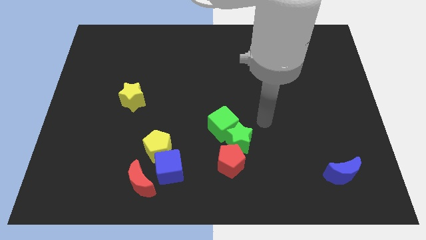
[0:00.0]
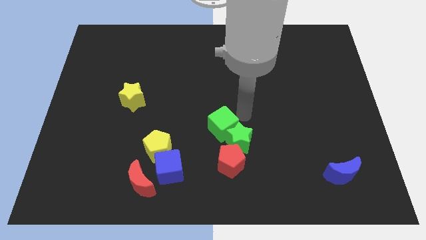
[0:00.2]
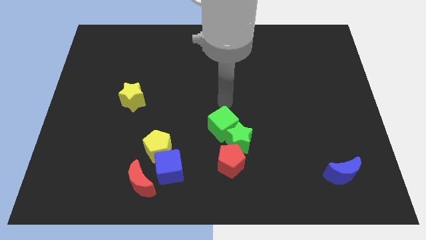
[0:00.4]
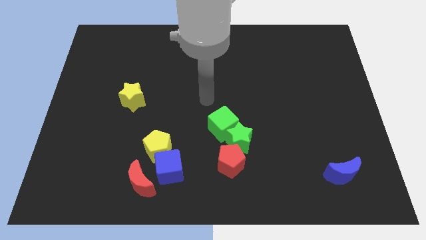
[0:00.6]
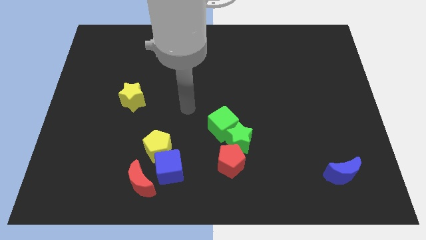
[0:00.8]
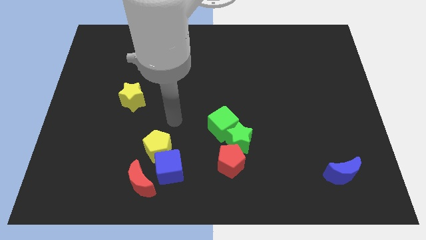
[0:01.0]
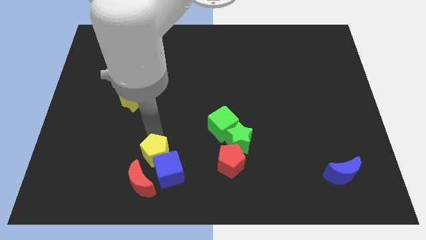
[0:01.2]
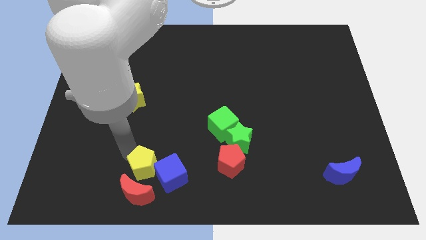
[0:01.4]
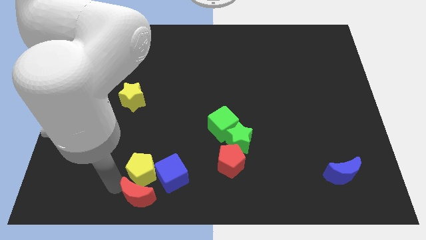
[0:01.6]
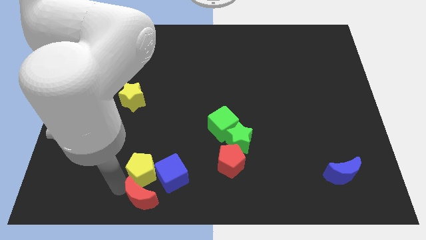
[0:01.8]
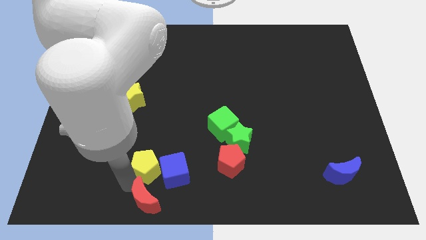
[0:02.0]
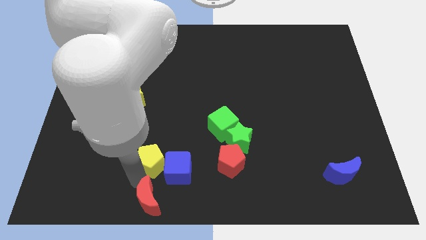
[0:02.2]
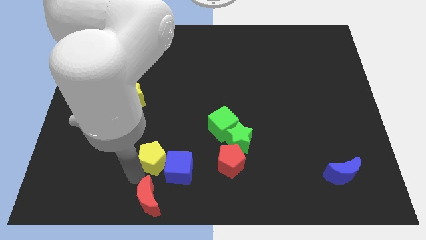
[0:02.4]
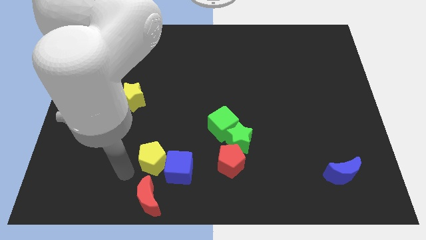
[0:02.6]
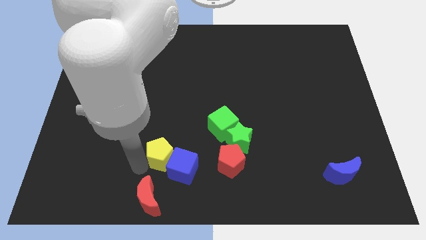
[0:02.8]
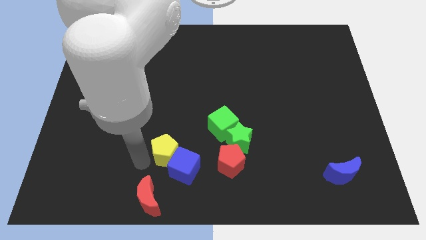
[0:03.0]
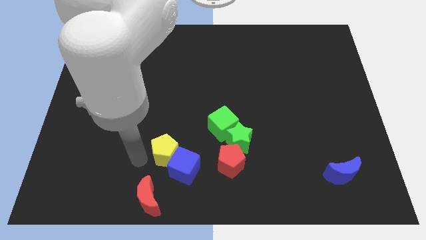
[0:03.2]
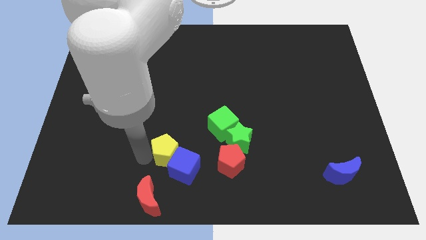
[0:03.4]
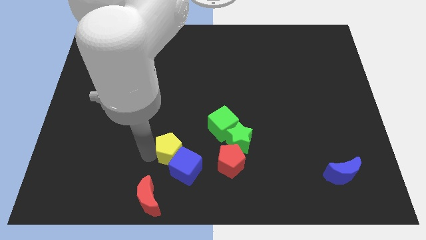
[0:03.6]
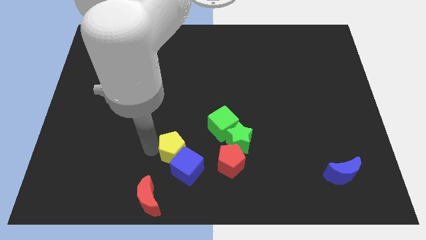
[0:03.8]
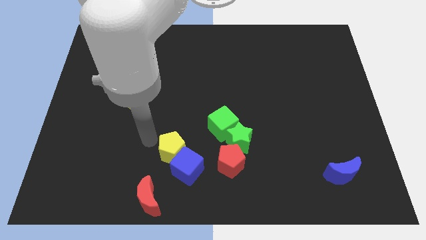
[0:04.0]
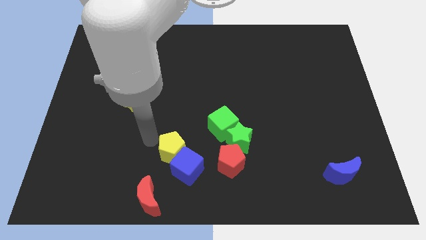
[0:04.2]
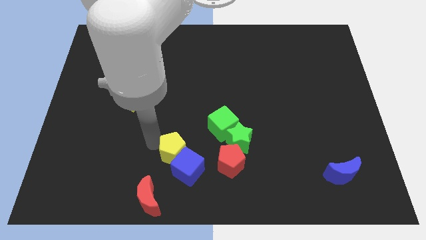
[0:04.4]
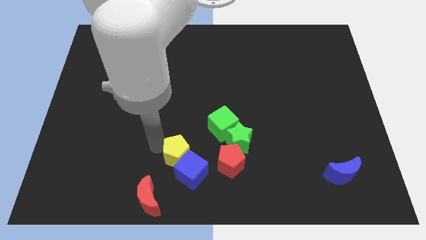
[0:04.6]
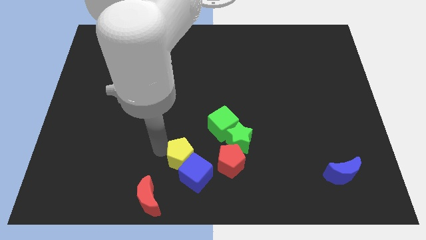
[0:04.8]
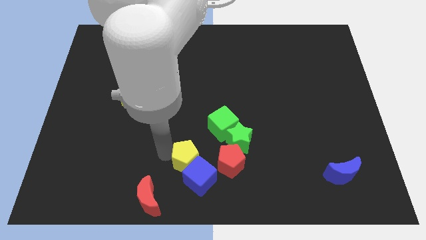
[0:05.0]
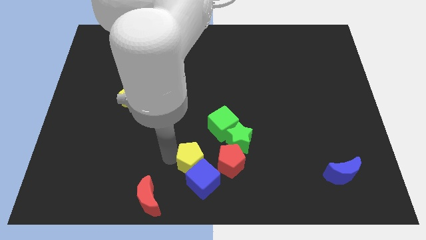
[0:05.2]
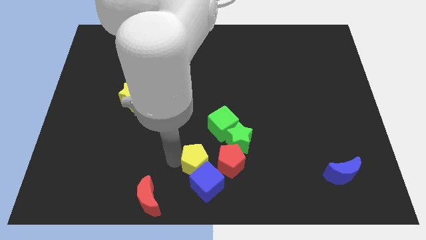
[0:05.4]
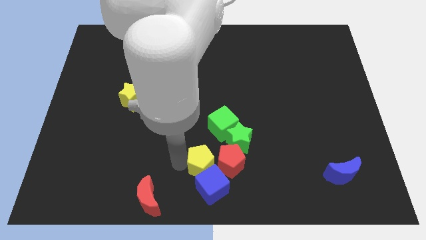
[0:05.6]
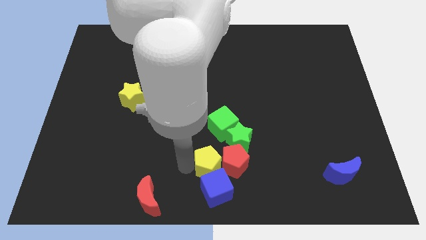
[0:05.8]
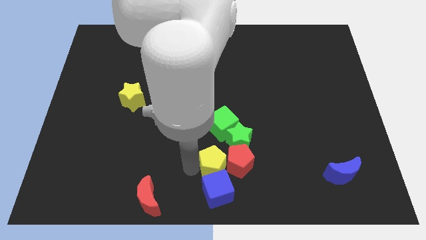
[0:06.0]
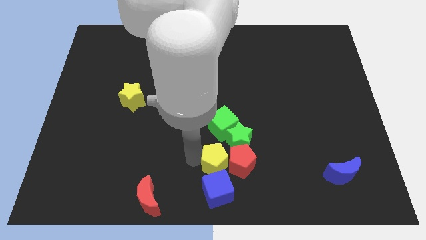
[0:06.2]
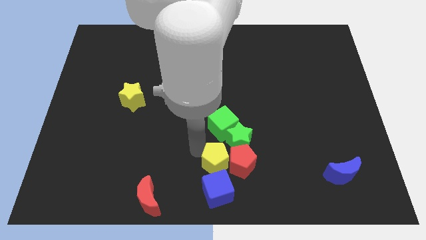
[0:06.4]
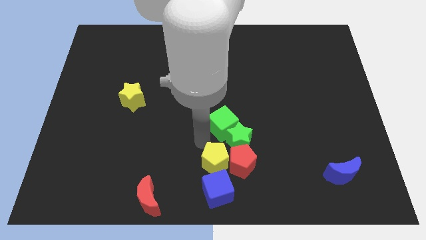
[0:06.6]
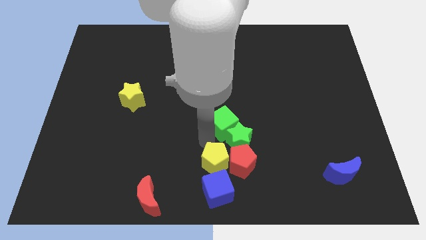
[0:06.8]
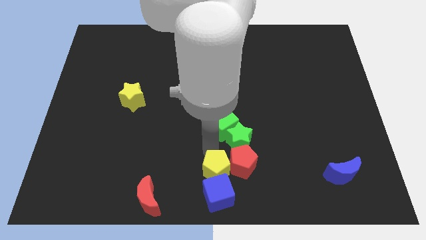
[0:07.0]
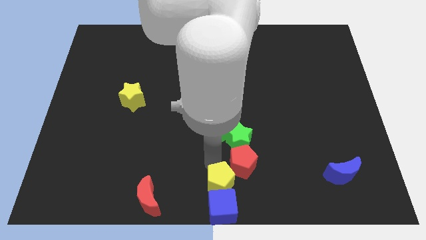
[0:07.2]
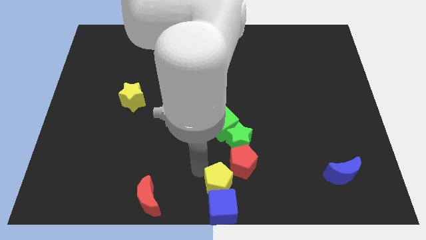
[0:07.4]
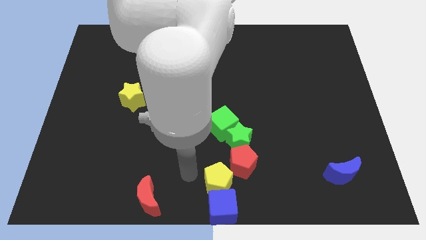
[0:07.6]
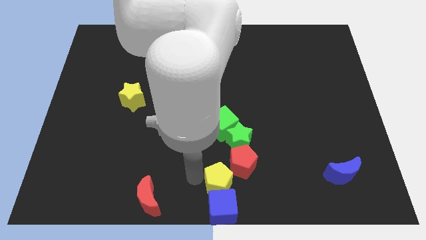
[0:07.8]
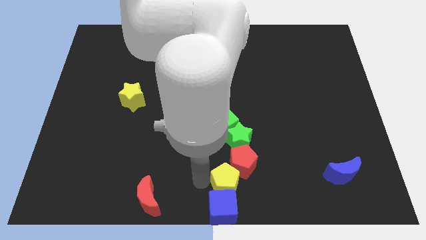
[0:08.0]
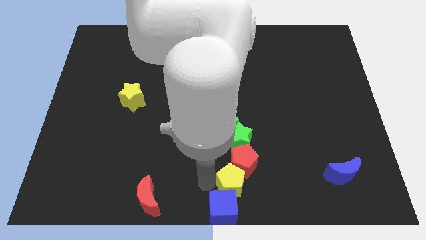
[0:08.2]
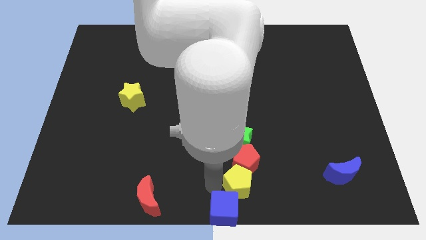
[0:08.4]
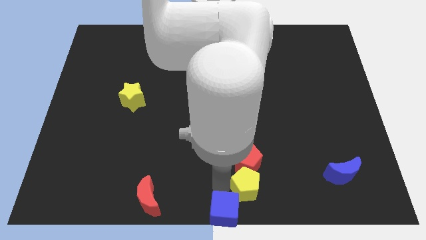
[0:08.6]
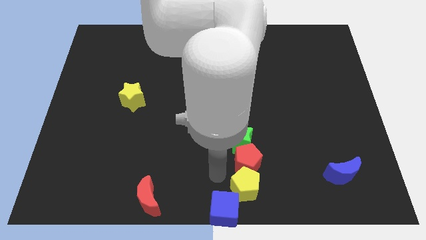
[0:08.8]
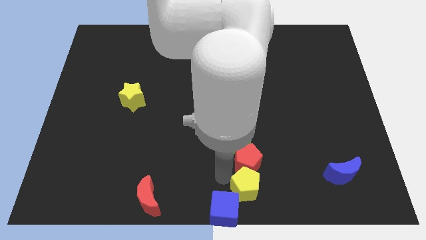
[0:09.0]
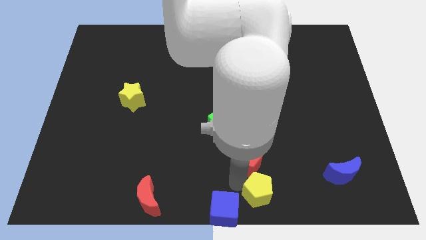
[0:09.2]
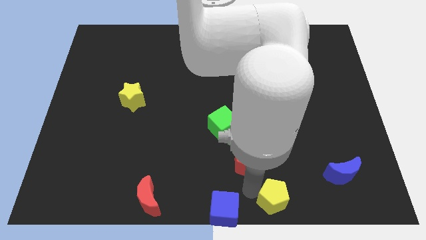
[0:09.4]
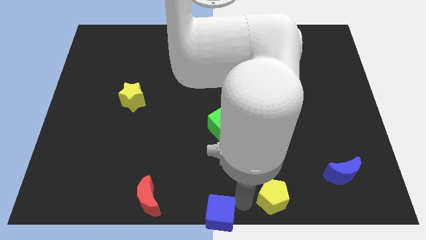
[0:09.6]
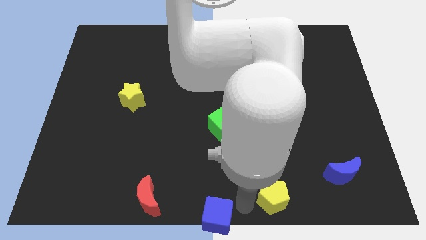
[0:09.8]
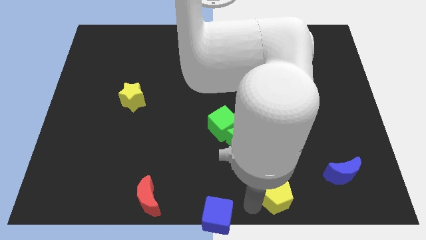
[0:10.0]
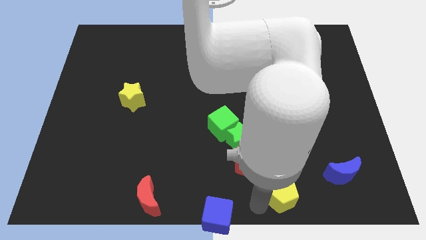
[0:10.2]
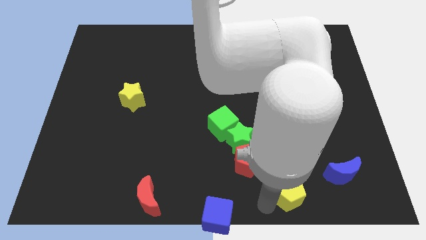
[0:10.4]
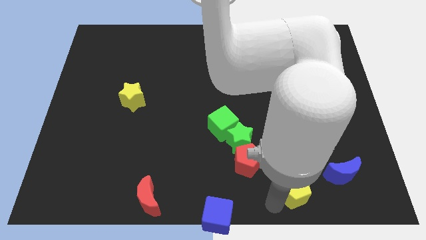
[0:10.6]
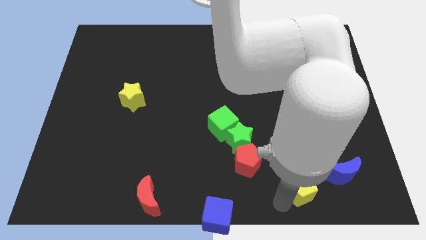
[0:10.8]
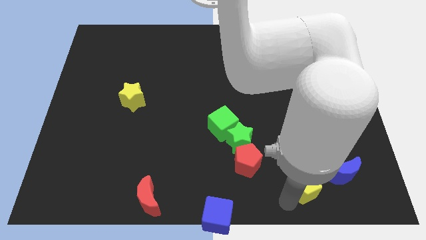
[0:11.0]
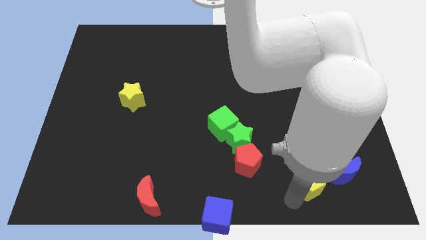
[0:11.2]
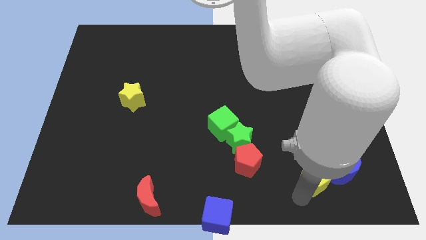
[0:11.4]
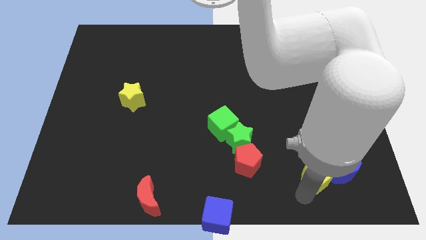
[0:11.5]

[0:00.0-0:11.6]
put the yellow pentagon close to the blue moon

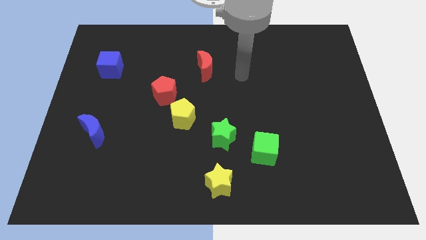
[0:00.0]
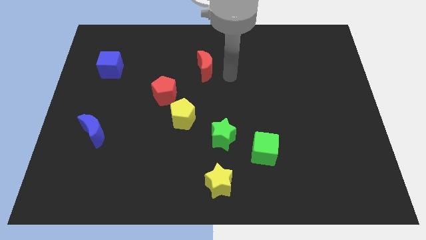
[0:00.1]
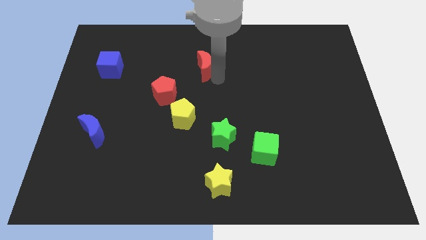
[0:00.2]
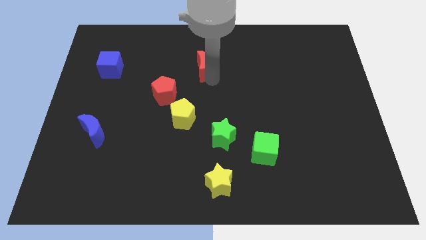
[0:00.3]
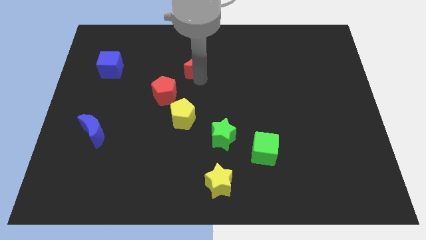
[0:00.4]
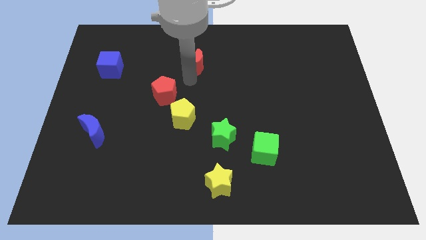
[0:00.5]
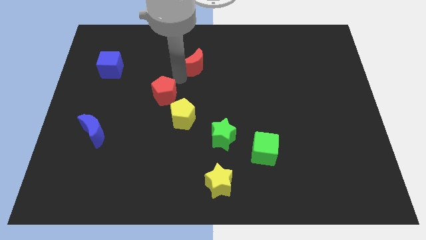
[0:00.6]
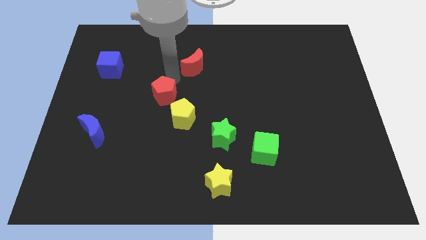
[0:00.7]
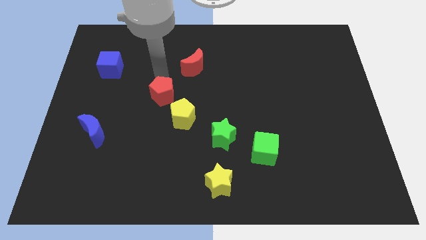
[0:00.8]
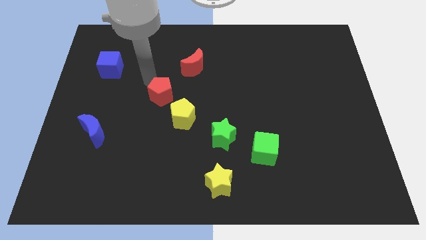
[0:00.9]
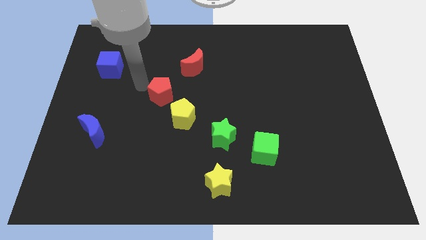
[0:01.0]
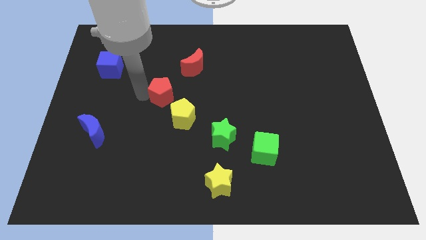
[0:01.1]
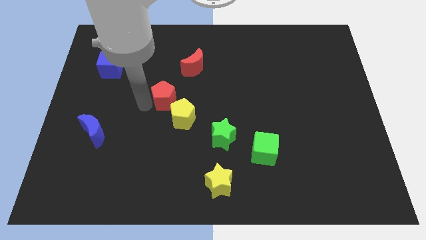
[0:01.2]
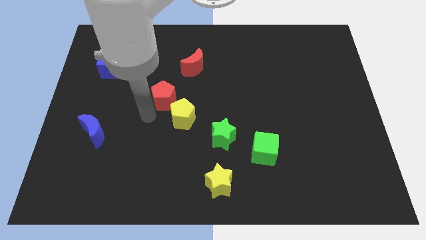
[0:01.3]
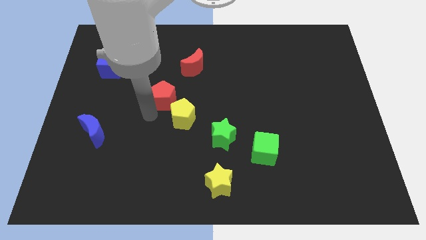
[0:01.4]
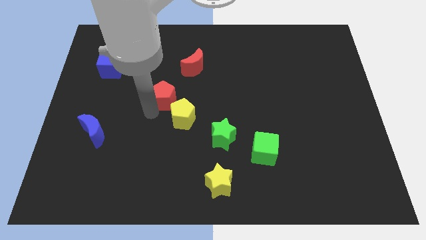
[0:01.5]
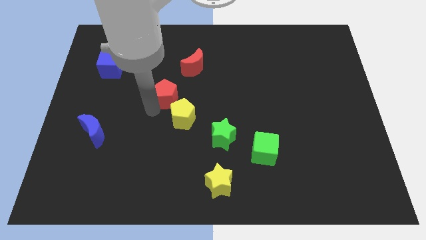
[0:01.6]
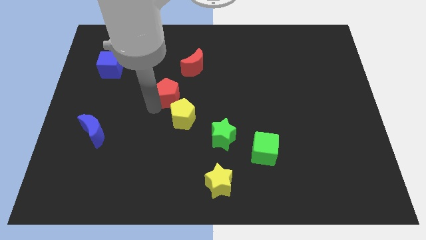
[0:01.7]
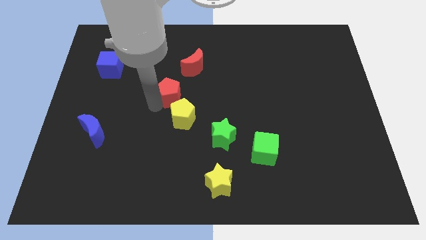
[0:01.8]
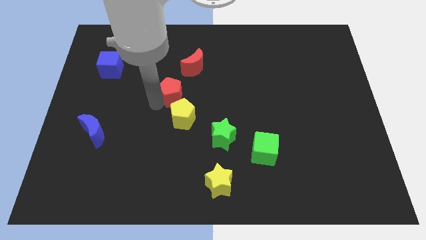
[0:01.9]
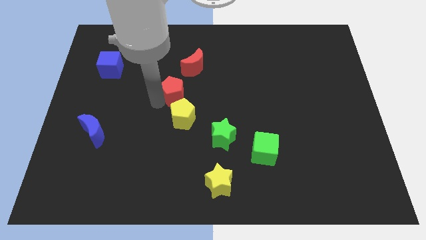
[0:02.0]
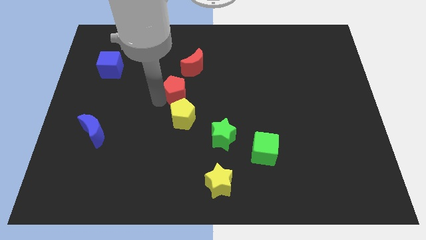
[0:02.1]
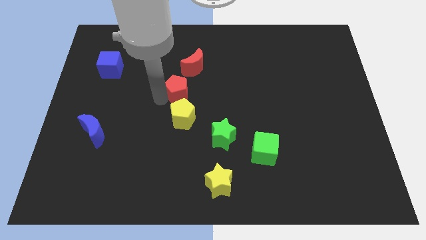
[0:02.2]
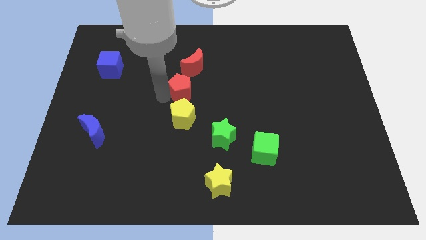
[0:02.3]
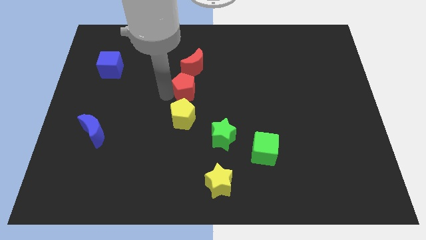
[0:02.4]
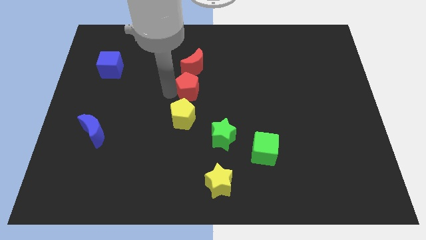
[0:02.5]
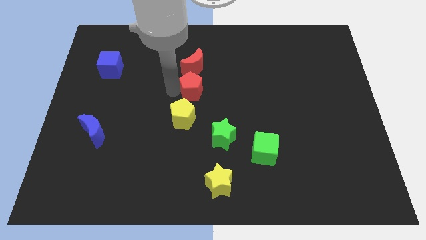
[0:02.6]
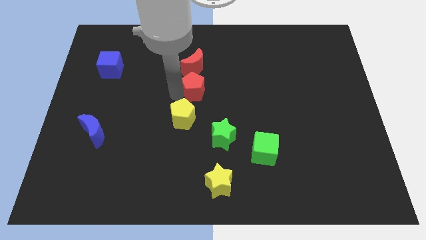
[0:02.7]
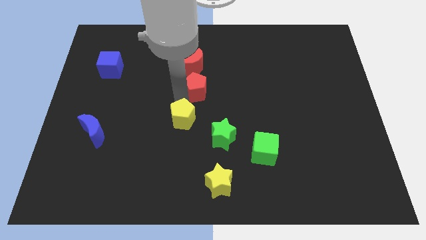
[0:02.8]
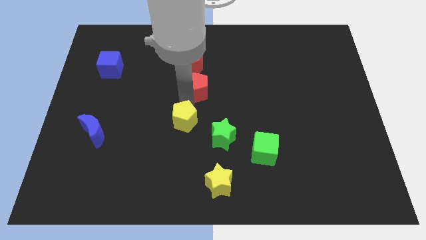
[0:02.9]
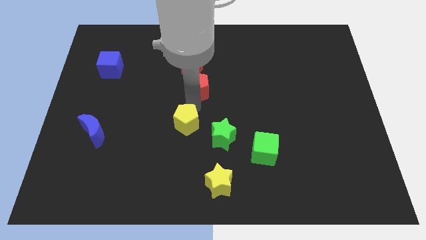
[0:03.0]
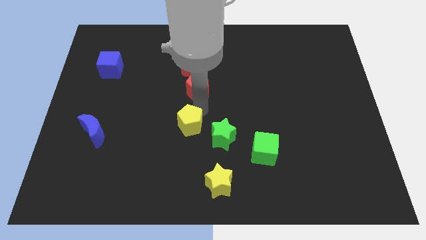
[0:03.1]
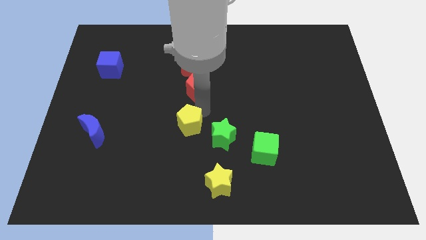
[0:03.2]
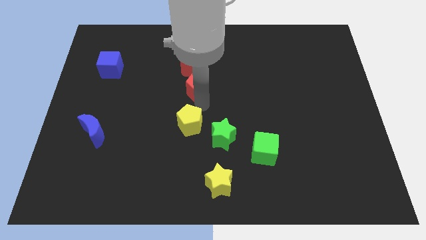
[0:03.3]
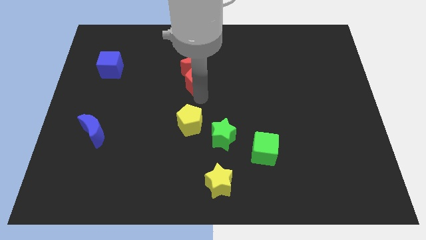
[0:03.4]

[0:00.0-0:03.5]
slide the red pentagon next to the red moon
